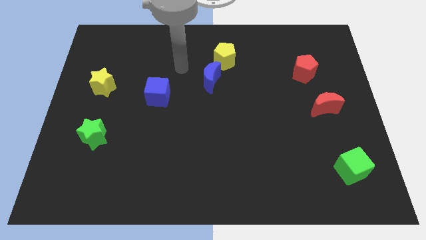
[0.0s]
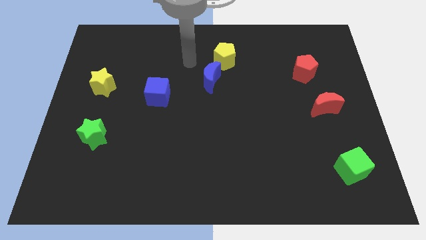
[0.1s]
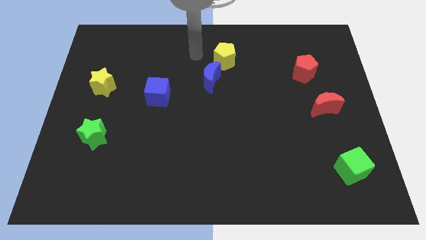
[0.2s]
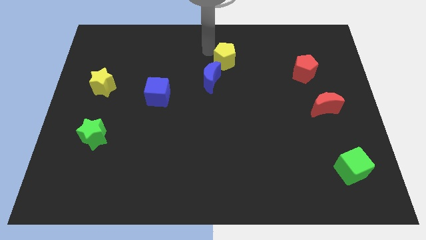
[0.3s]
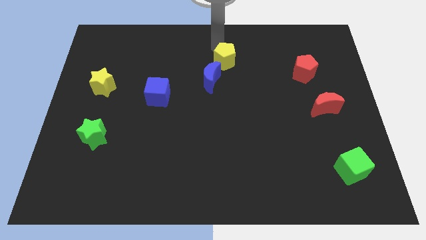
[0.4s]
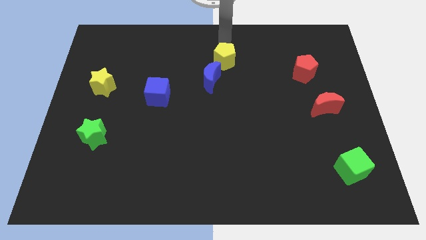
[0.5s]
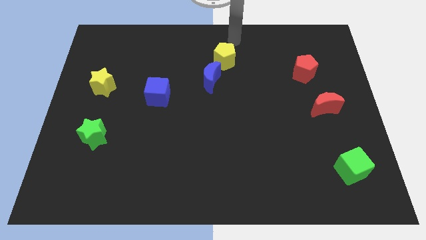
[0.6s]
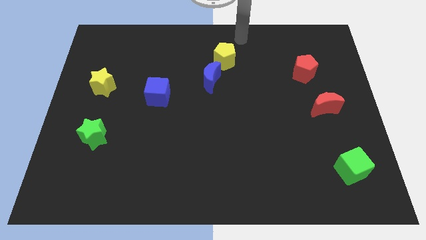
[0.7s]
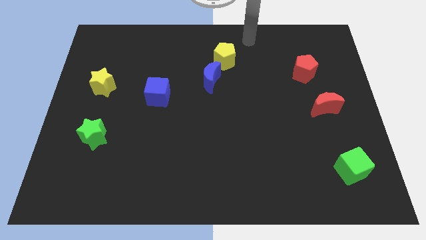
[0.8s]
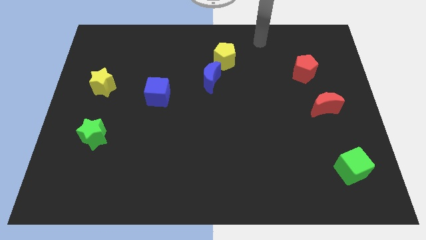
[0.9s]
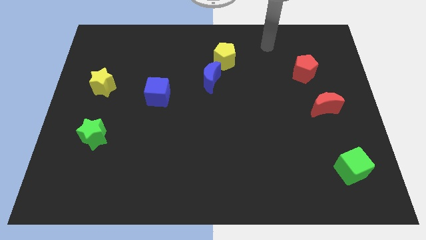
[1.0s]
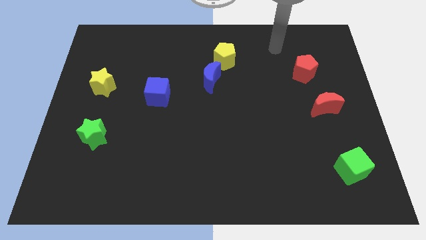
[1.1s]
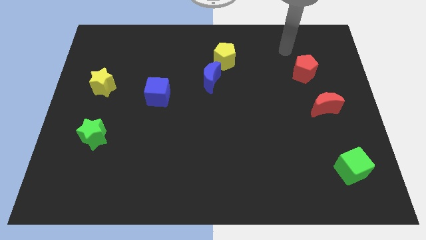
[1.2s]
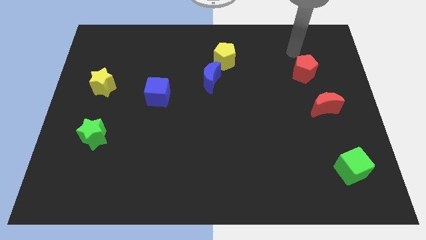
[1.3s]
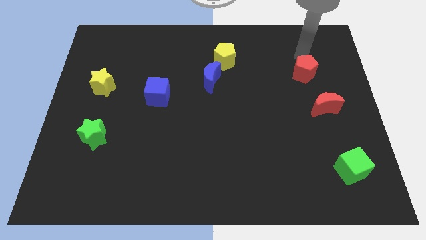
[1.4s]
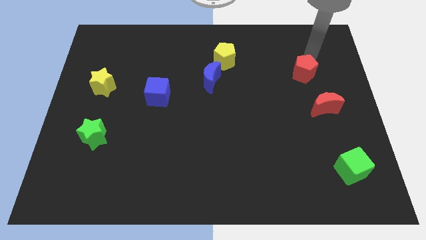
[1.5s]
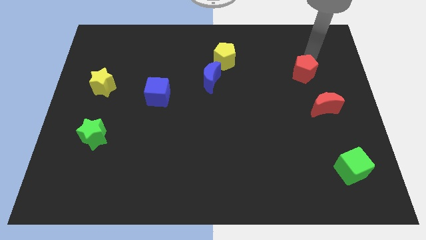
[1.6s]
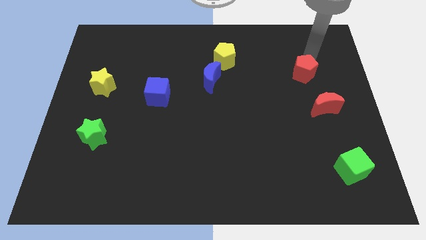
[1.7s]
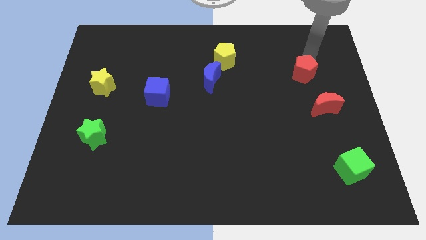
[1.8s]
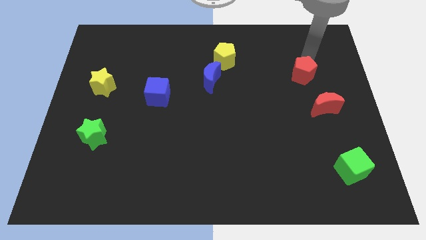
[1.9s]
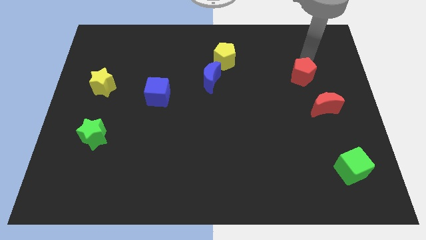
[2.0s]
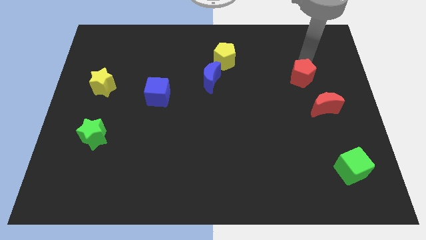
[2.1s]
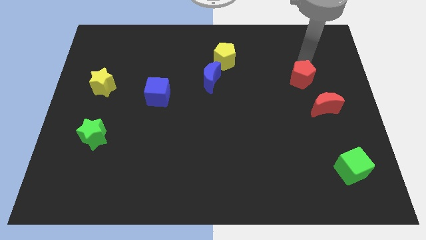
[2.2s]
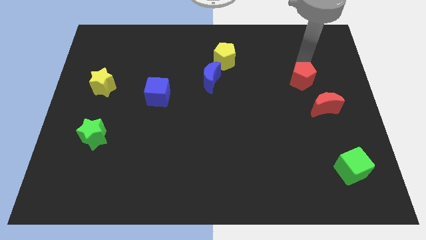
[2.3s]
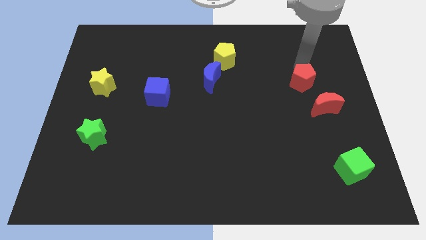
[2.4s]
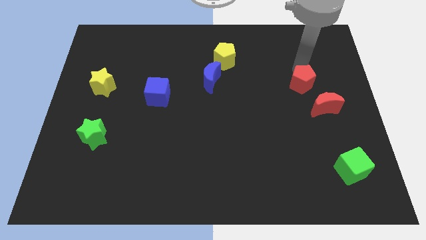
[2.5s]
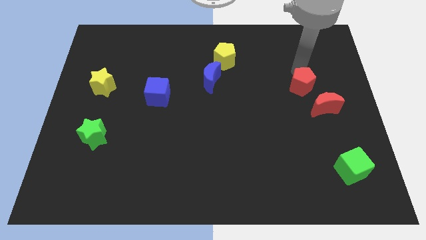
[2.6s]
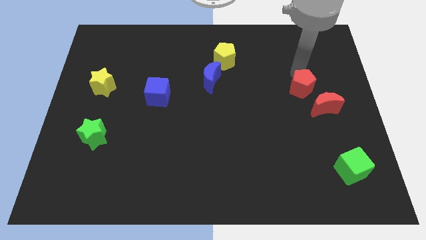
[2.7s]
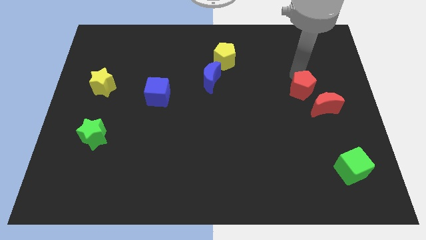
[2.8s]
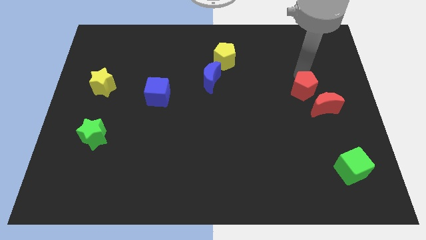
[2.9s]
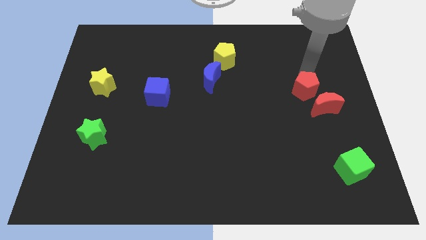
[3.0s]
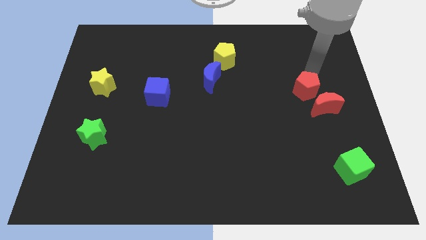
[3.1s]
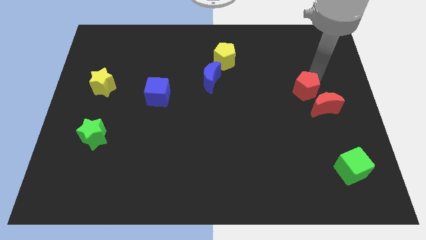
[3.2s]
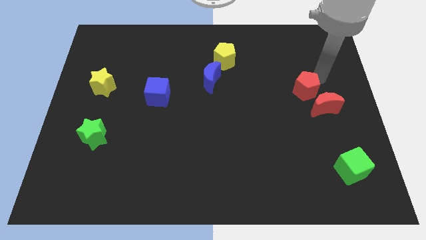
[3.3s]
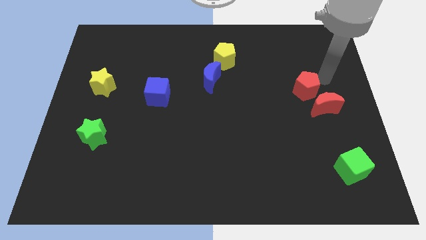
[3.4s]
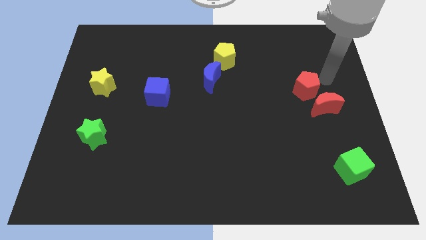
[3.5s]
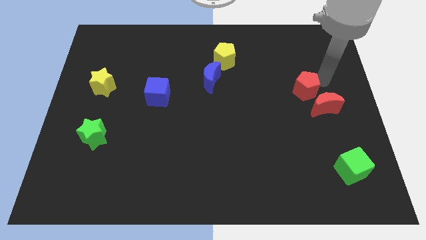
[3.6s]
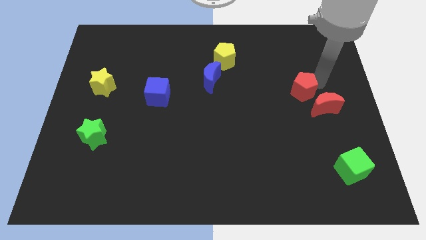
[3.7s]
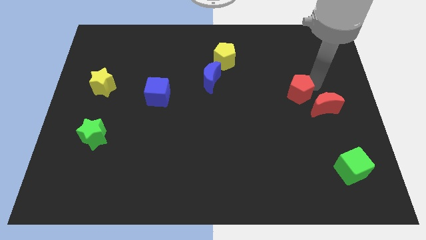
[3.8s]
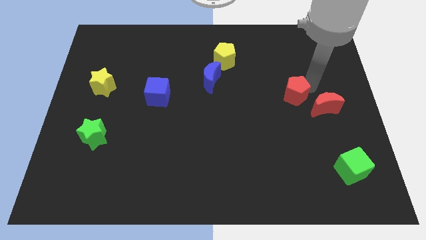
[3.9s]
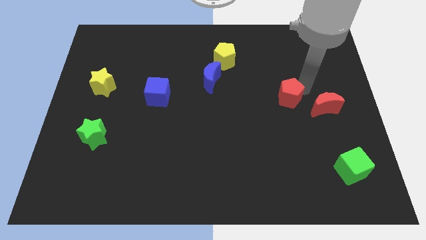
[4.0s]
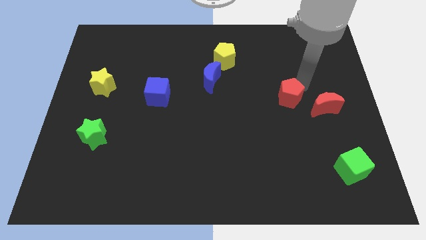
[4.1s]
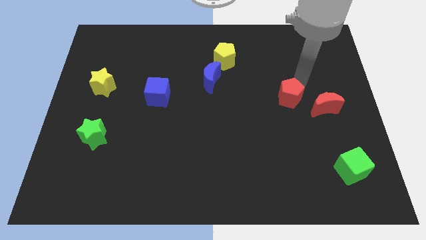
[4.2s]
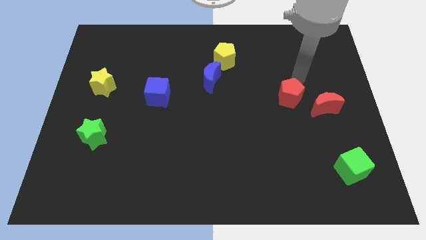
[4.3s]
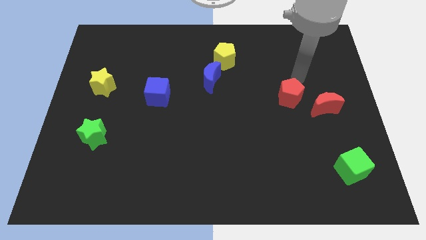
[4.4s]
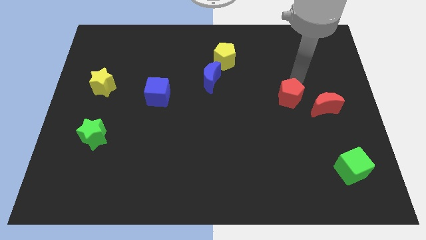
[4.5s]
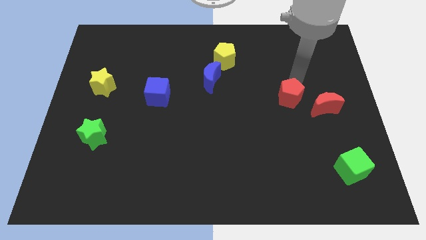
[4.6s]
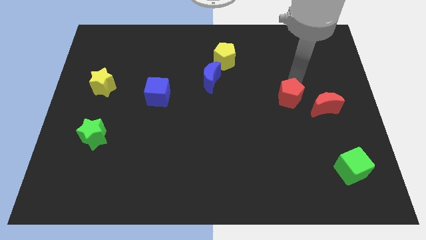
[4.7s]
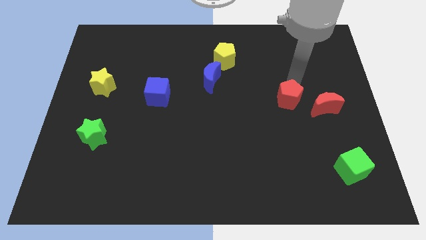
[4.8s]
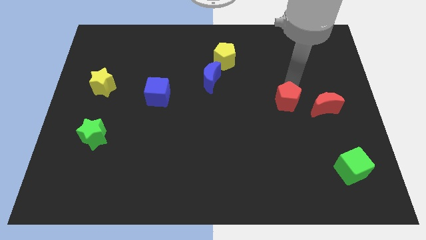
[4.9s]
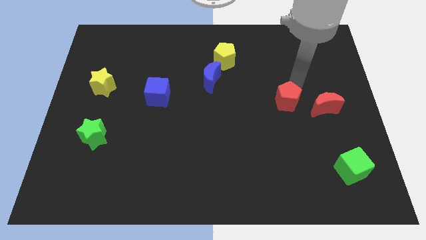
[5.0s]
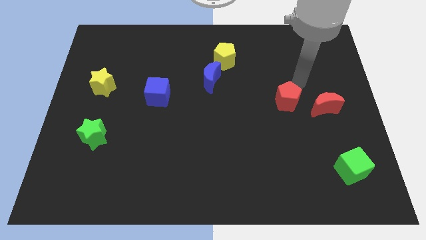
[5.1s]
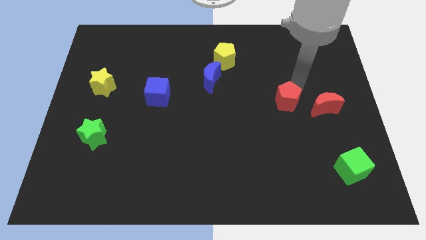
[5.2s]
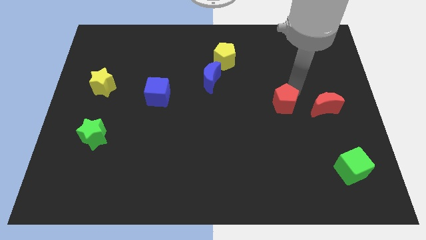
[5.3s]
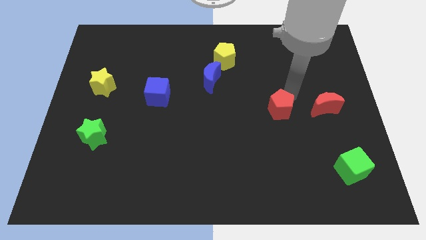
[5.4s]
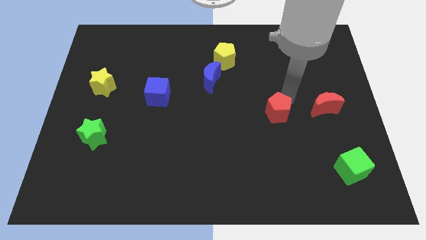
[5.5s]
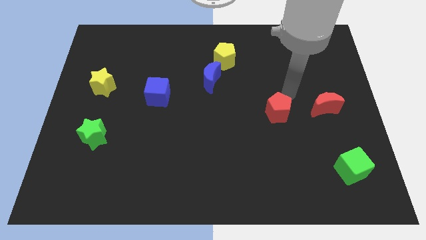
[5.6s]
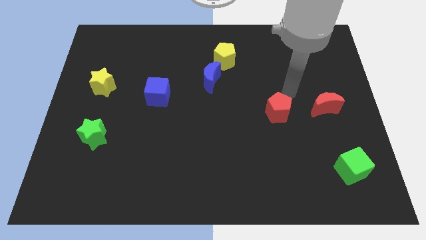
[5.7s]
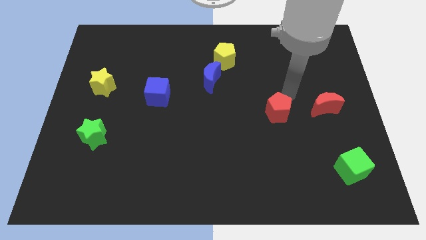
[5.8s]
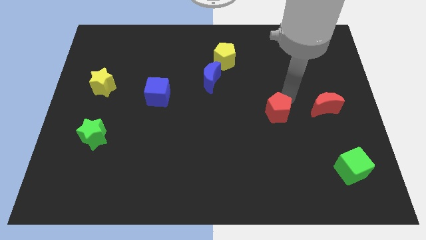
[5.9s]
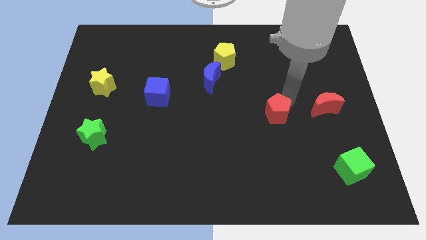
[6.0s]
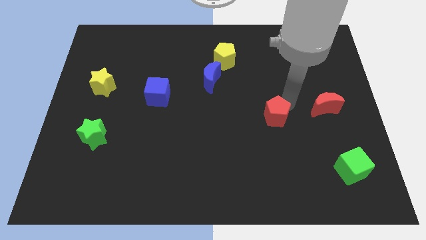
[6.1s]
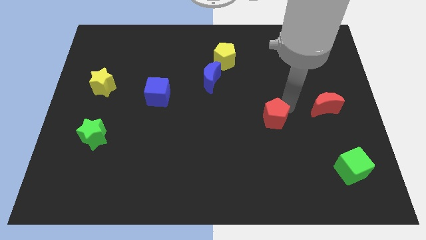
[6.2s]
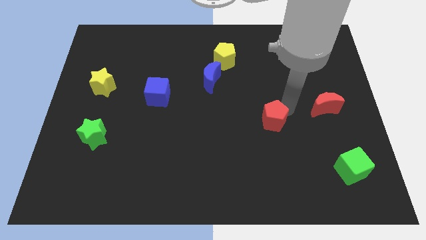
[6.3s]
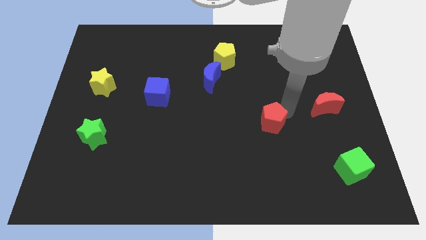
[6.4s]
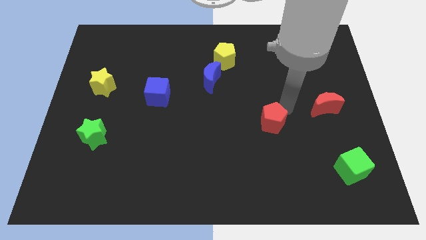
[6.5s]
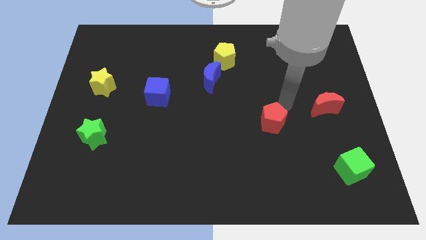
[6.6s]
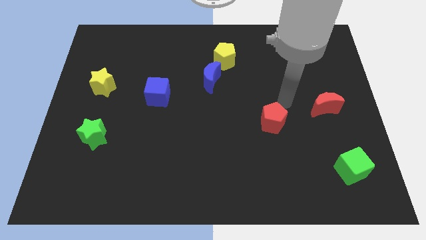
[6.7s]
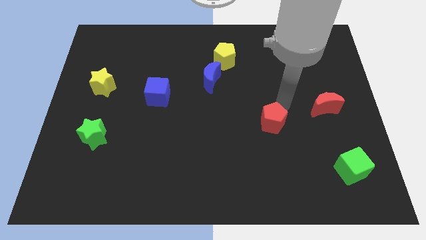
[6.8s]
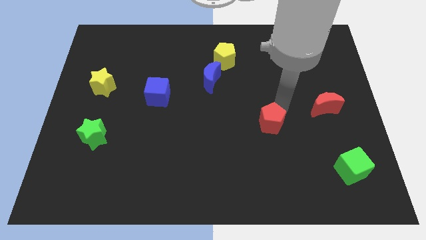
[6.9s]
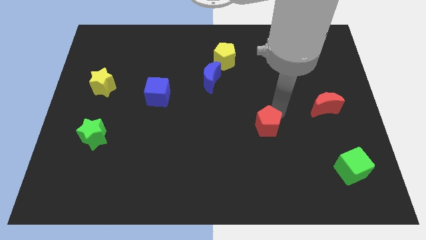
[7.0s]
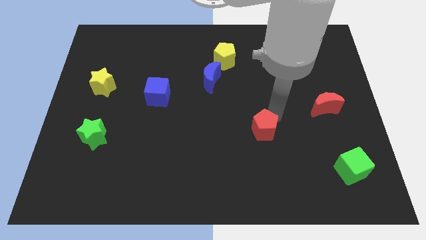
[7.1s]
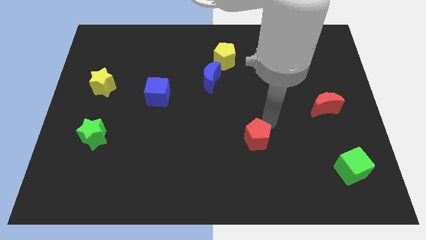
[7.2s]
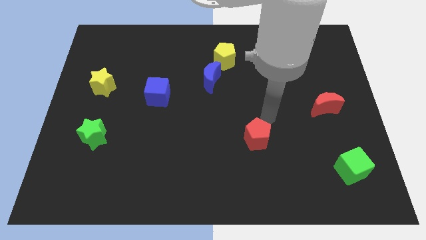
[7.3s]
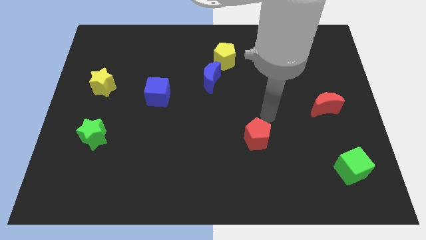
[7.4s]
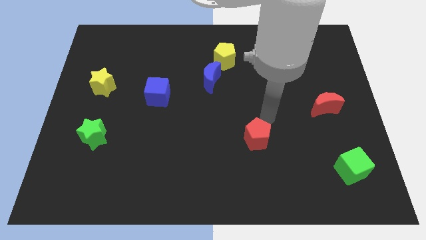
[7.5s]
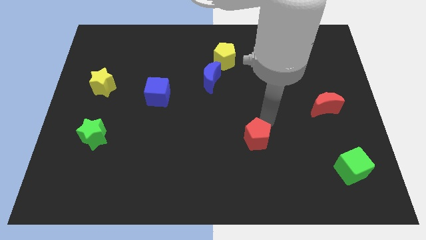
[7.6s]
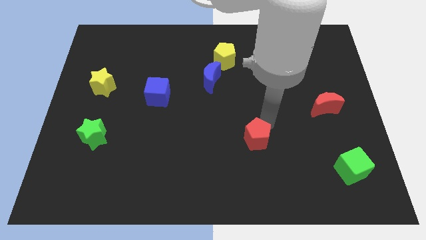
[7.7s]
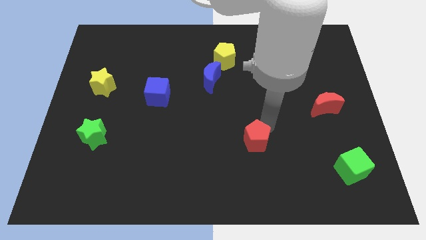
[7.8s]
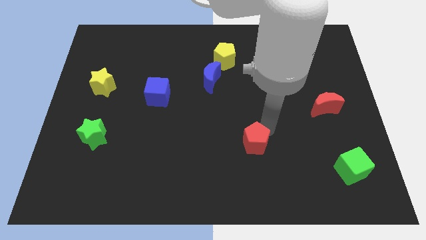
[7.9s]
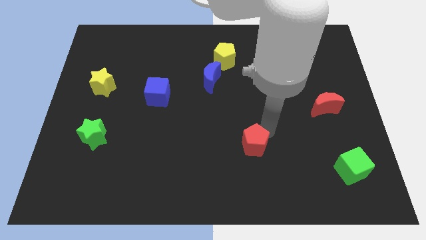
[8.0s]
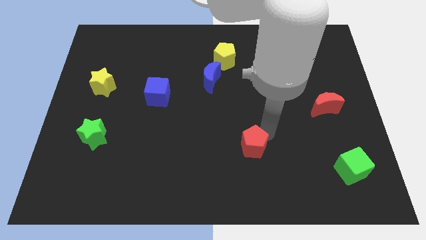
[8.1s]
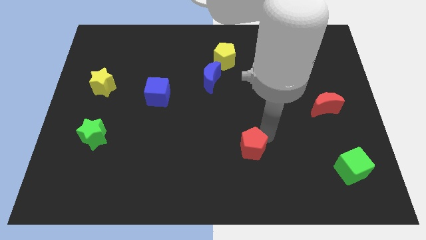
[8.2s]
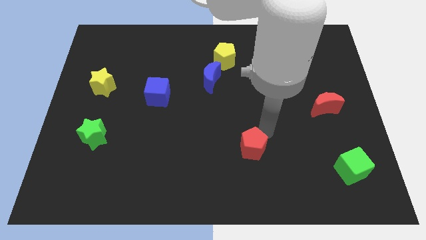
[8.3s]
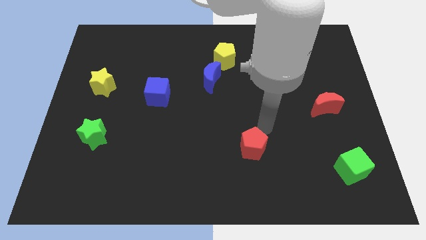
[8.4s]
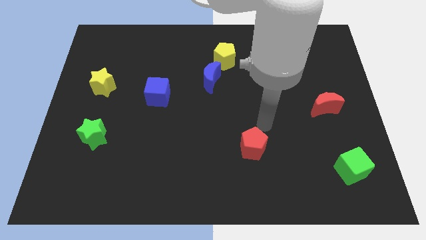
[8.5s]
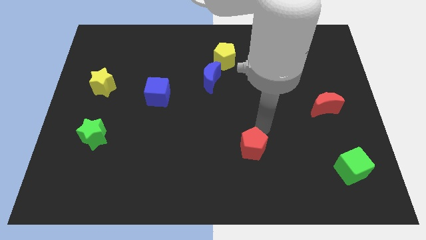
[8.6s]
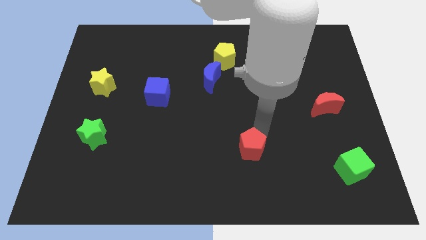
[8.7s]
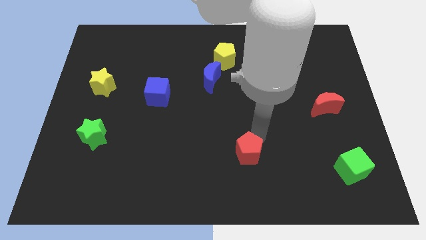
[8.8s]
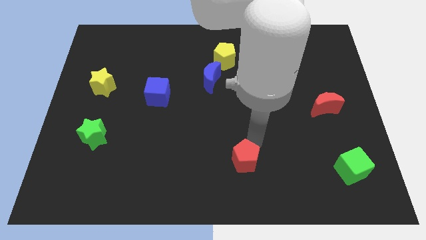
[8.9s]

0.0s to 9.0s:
slide the red pentagon to the bottom
